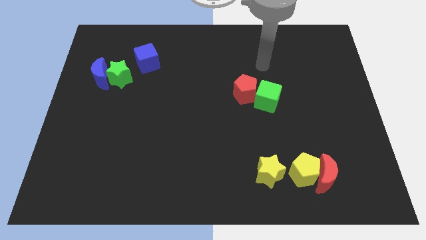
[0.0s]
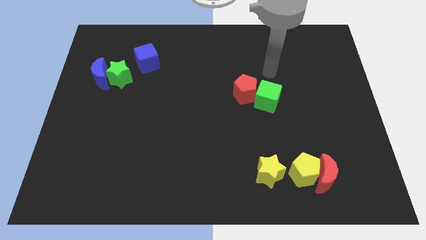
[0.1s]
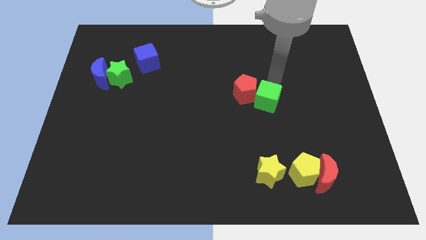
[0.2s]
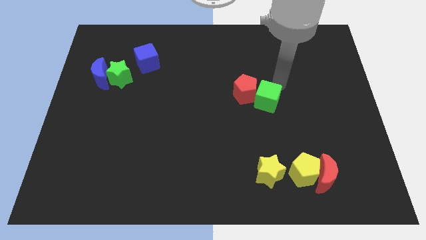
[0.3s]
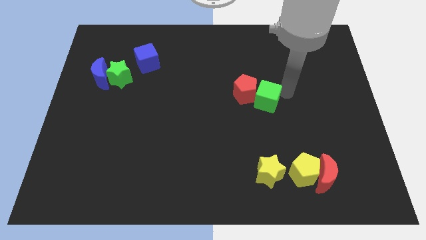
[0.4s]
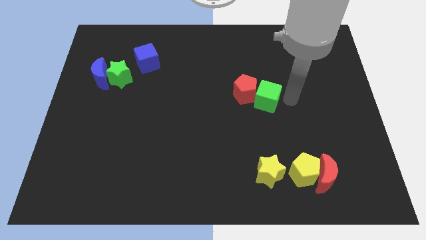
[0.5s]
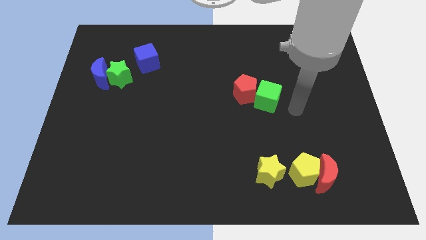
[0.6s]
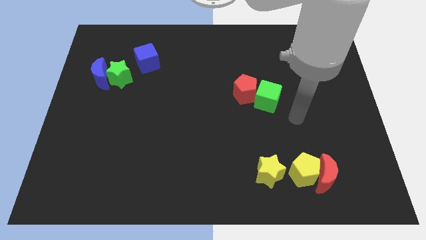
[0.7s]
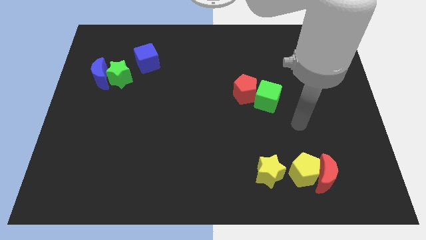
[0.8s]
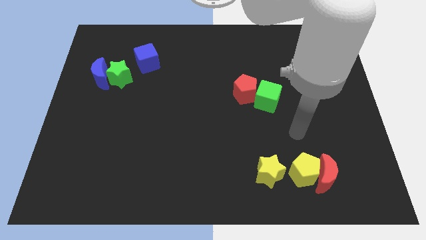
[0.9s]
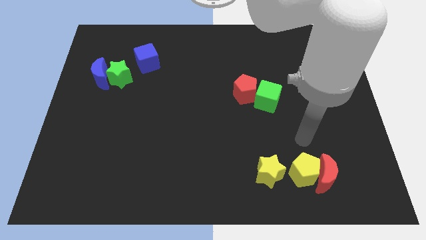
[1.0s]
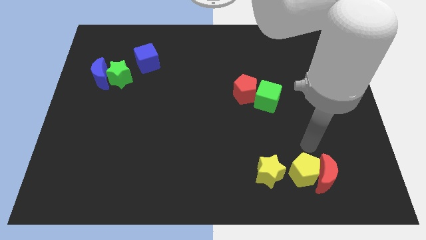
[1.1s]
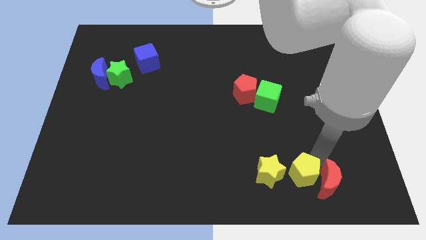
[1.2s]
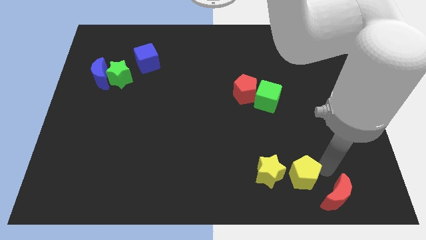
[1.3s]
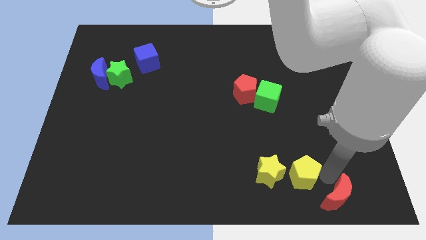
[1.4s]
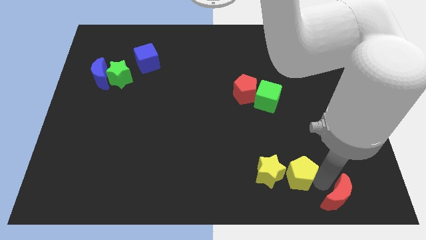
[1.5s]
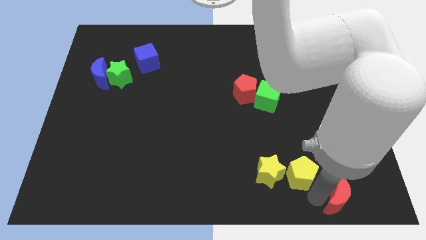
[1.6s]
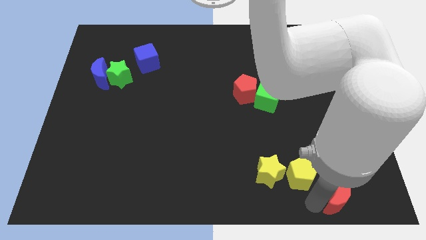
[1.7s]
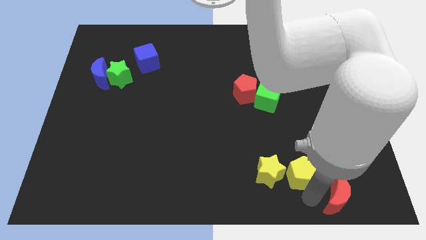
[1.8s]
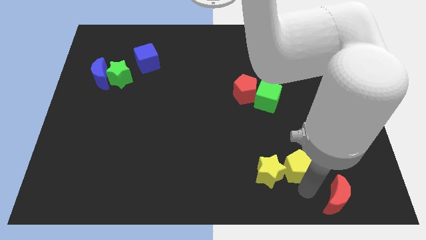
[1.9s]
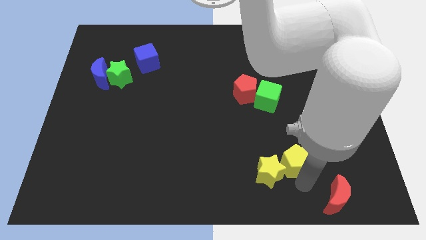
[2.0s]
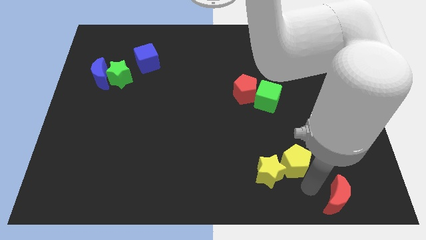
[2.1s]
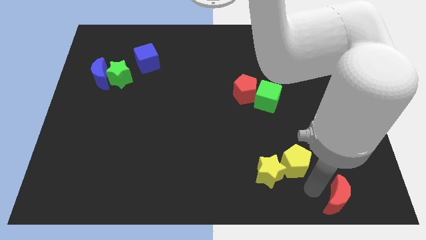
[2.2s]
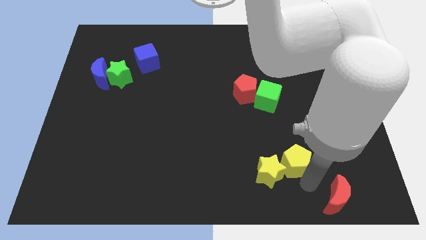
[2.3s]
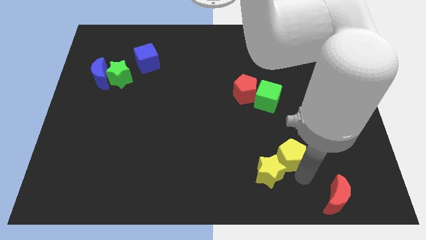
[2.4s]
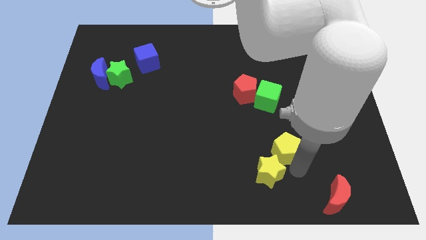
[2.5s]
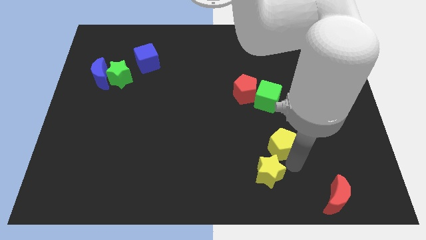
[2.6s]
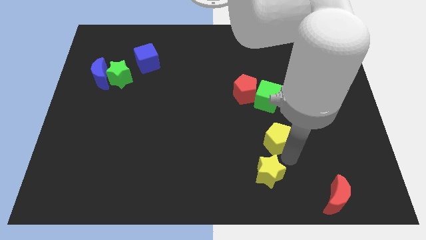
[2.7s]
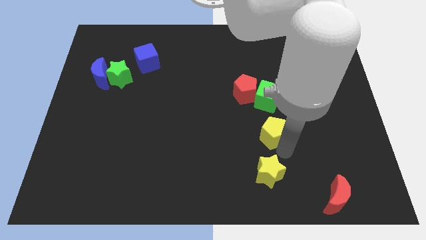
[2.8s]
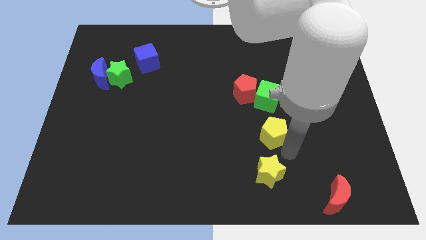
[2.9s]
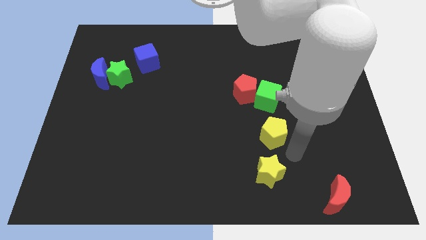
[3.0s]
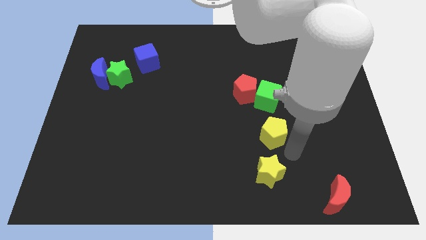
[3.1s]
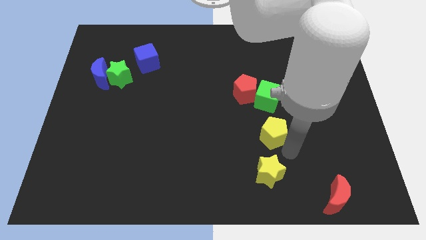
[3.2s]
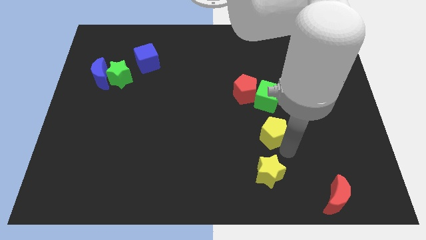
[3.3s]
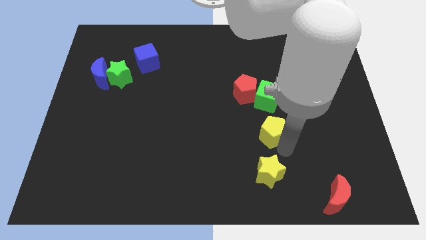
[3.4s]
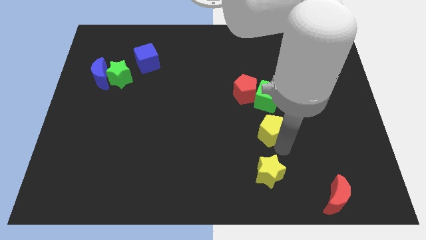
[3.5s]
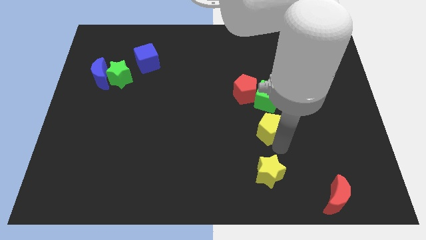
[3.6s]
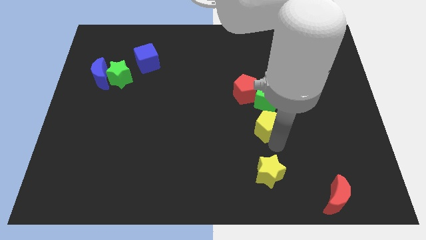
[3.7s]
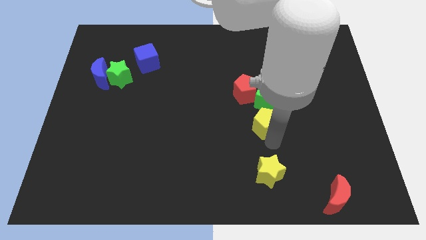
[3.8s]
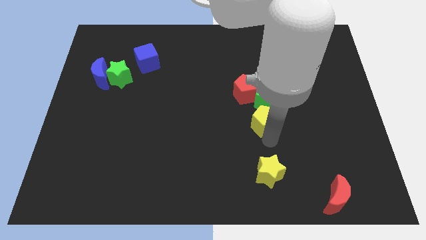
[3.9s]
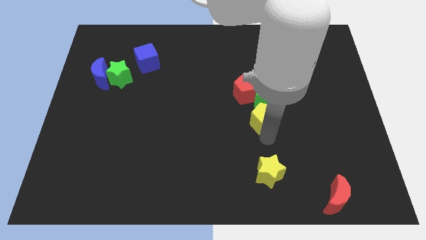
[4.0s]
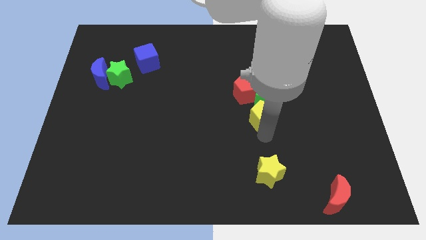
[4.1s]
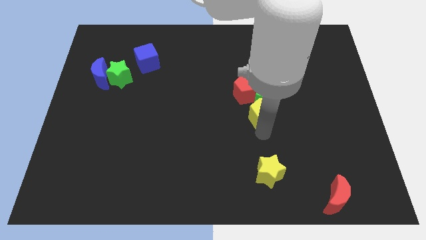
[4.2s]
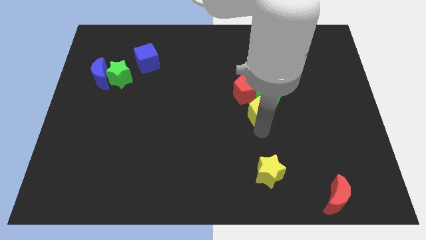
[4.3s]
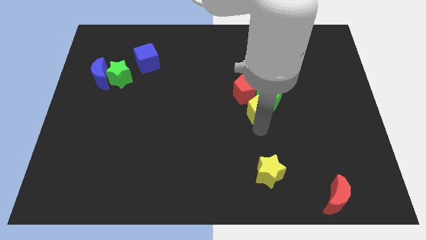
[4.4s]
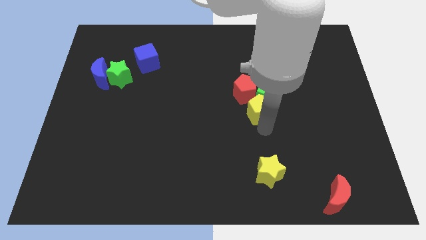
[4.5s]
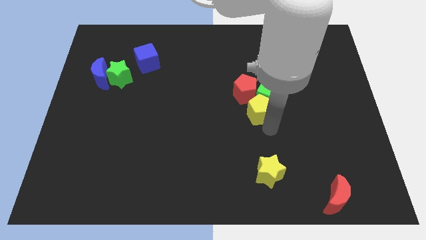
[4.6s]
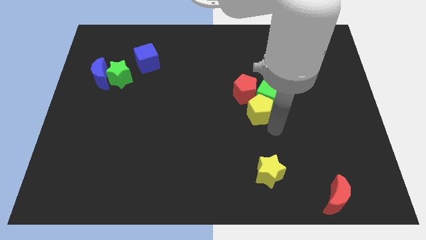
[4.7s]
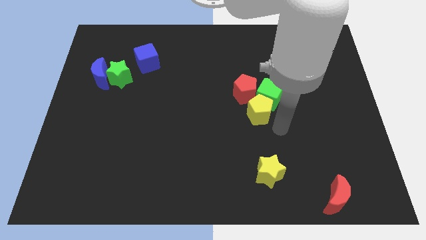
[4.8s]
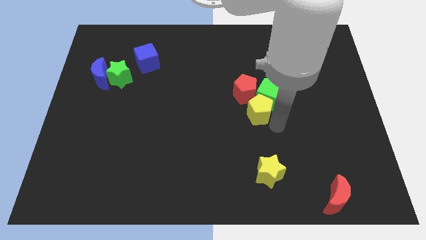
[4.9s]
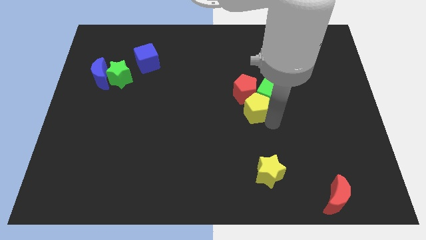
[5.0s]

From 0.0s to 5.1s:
put the yellow pentagon towards the red pentagon

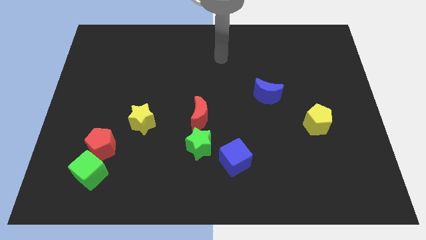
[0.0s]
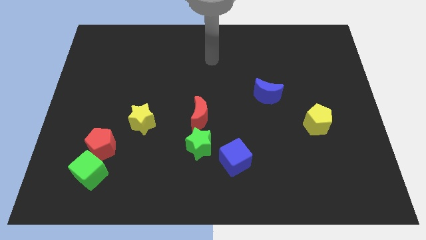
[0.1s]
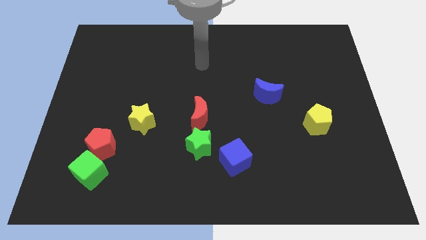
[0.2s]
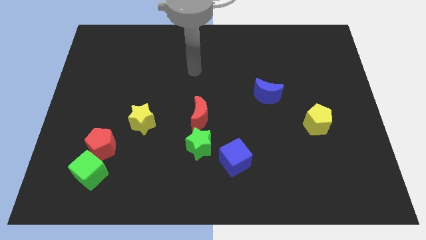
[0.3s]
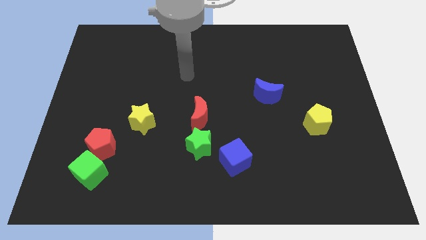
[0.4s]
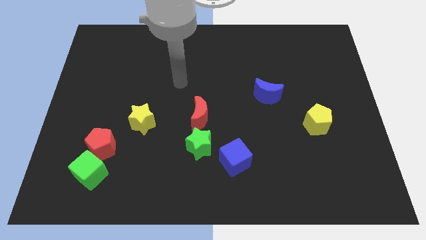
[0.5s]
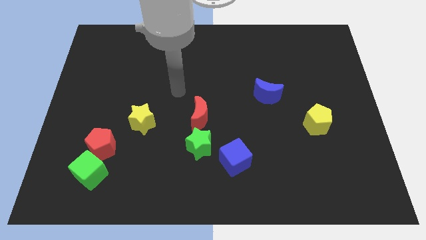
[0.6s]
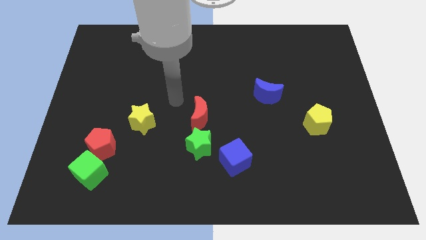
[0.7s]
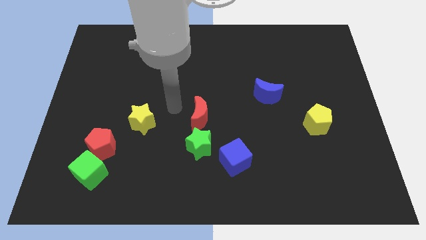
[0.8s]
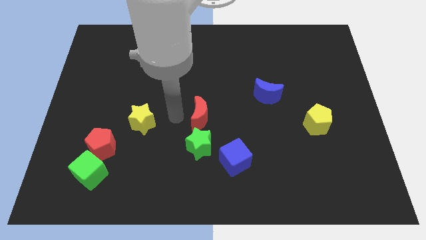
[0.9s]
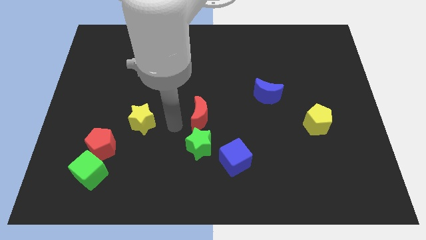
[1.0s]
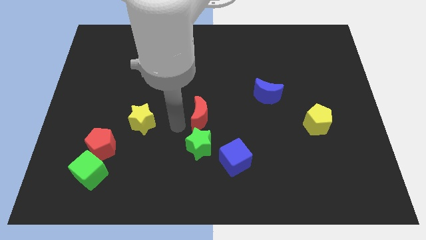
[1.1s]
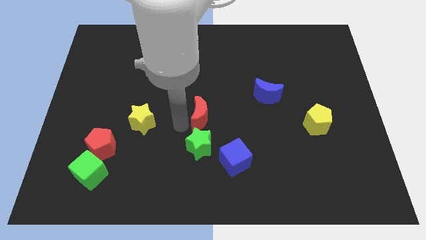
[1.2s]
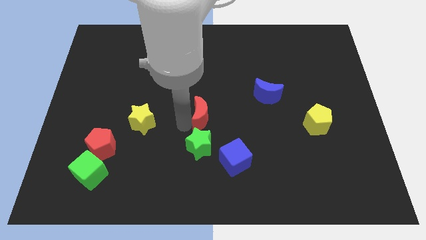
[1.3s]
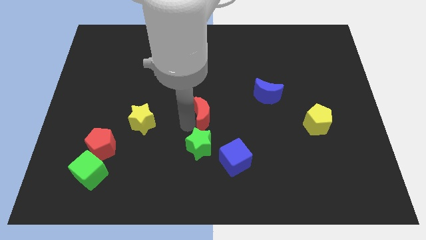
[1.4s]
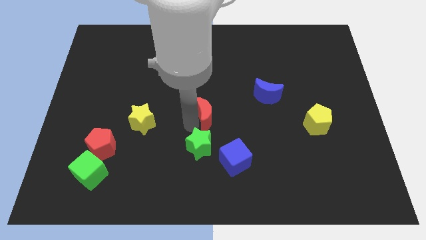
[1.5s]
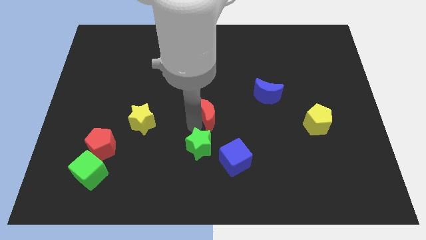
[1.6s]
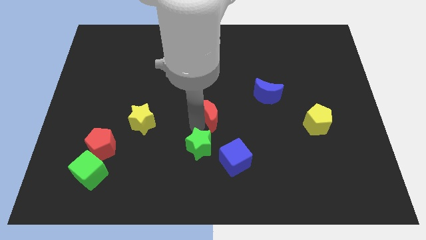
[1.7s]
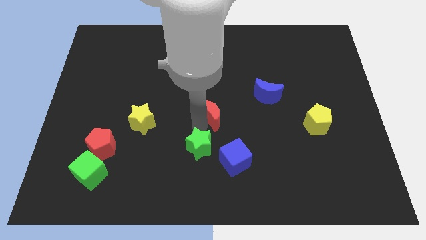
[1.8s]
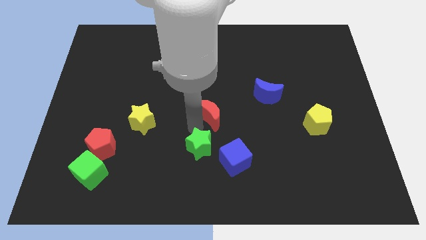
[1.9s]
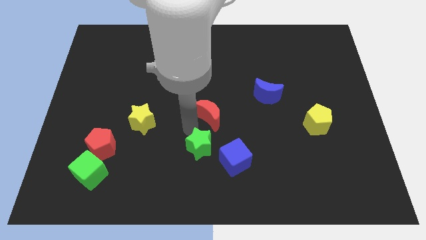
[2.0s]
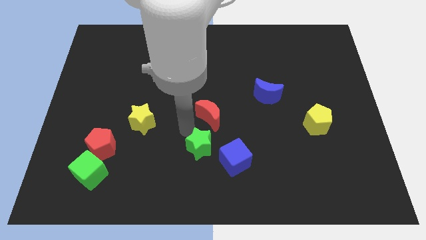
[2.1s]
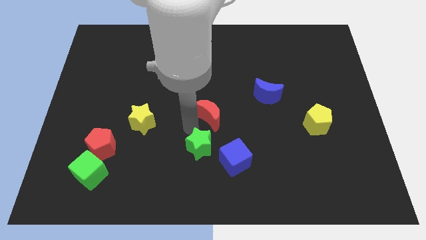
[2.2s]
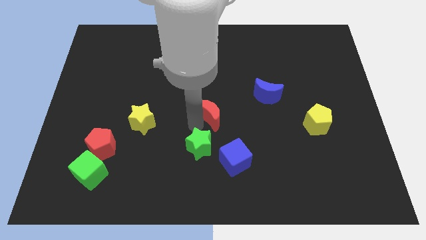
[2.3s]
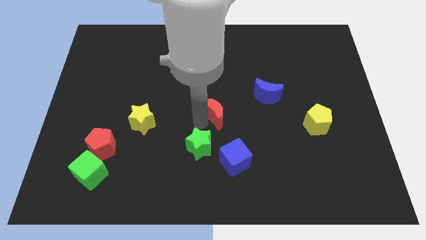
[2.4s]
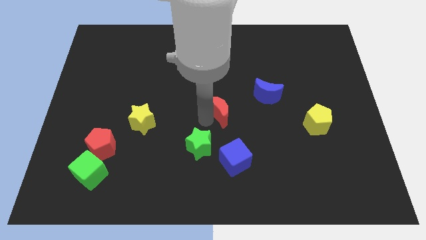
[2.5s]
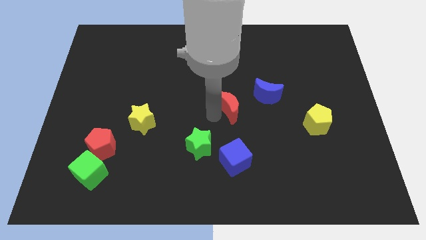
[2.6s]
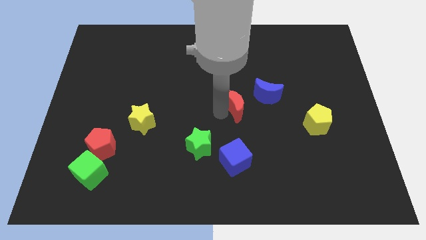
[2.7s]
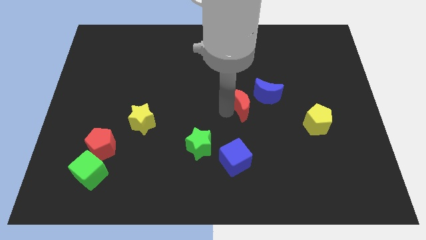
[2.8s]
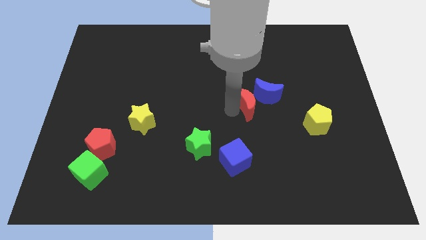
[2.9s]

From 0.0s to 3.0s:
push the red moon towards the blue moon
